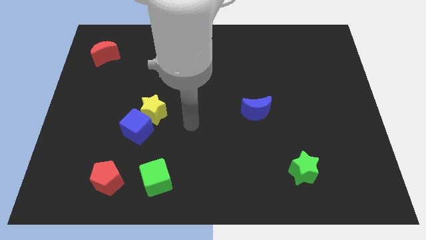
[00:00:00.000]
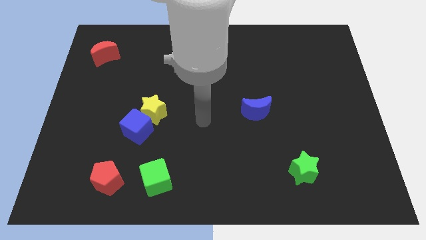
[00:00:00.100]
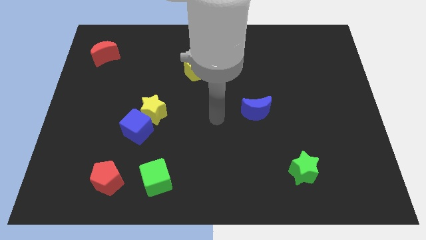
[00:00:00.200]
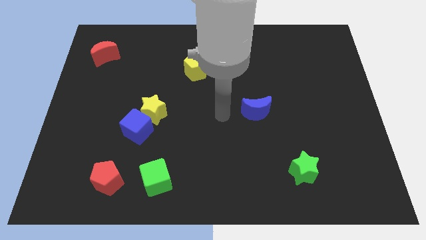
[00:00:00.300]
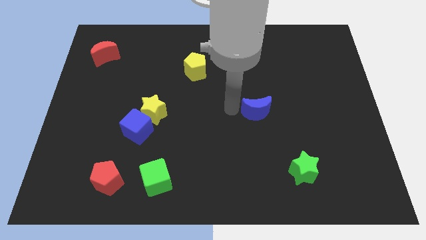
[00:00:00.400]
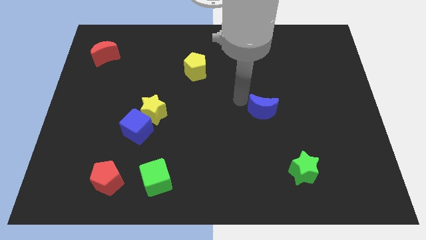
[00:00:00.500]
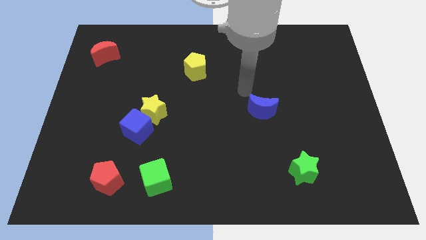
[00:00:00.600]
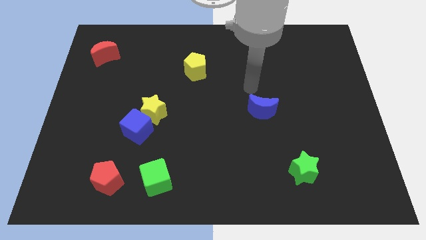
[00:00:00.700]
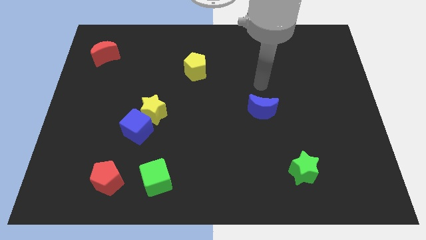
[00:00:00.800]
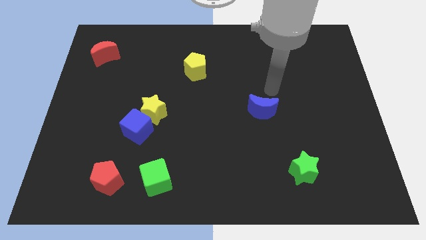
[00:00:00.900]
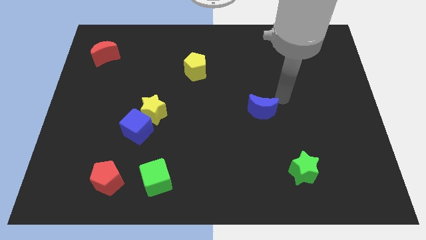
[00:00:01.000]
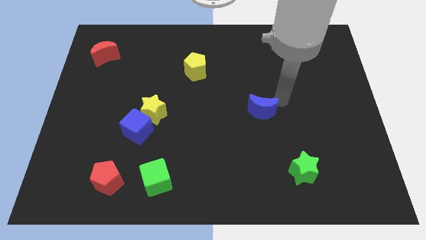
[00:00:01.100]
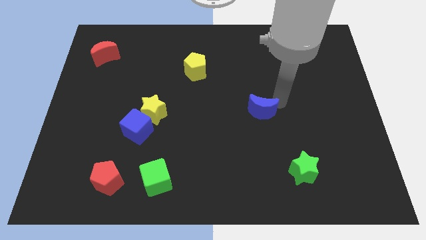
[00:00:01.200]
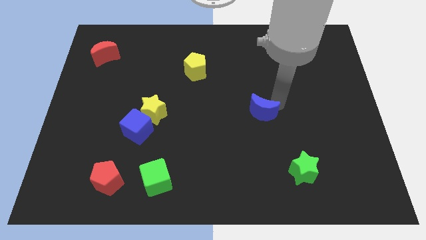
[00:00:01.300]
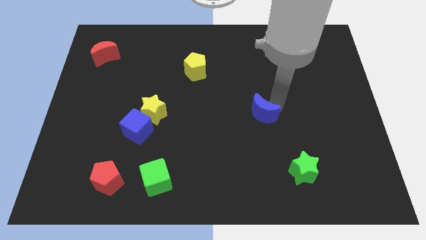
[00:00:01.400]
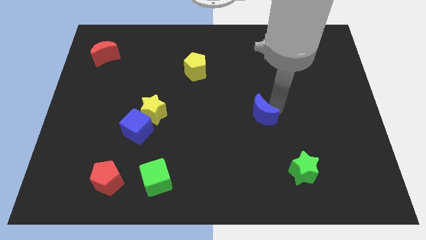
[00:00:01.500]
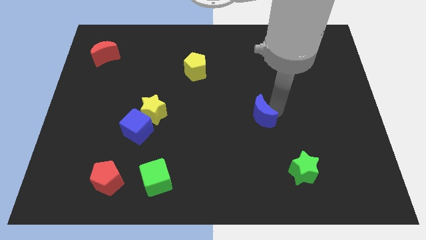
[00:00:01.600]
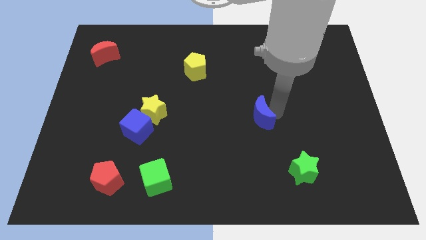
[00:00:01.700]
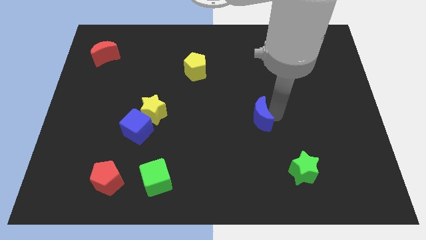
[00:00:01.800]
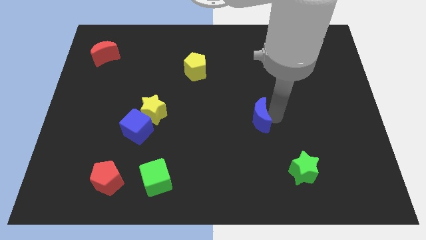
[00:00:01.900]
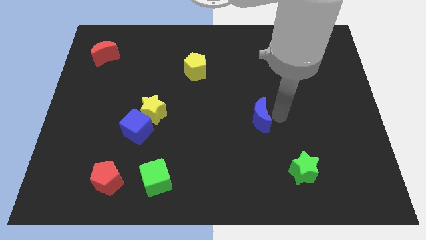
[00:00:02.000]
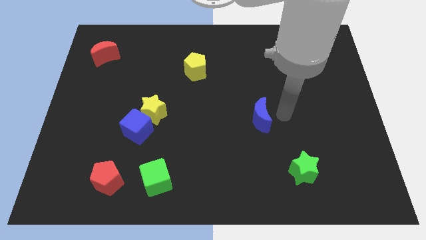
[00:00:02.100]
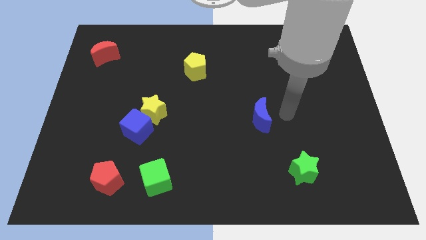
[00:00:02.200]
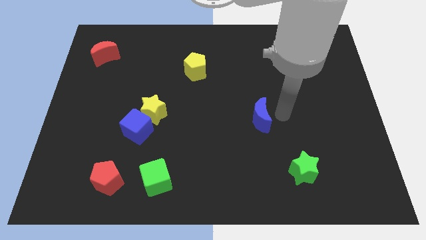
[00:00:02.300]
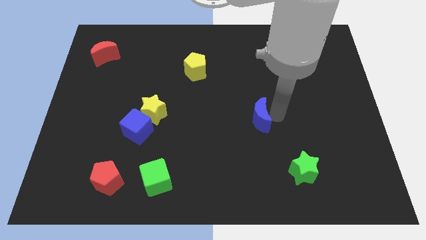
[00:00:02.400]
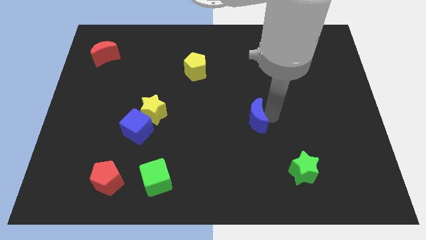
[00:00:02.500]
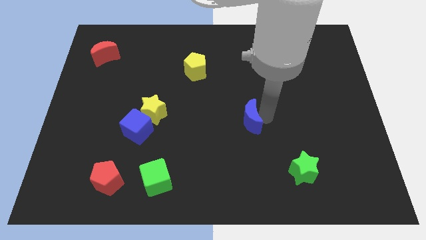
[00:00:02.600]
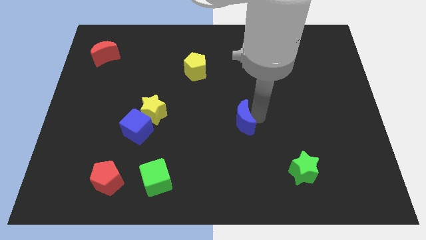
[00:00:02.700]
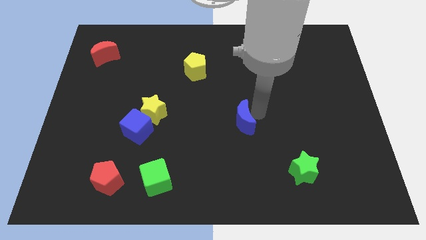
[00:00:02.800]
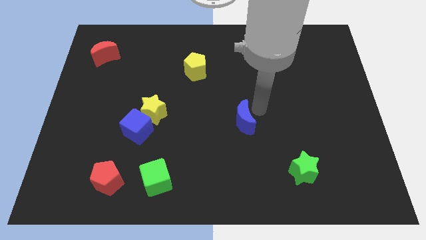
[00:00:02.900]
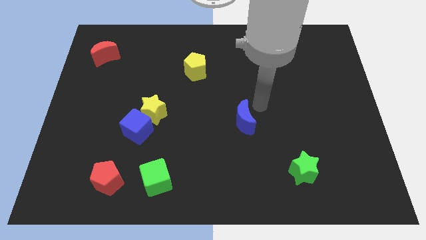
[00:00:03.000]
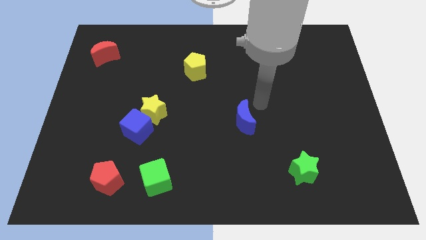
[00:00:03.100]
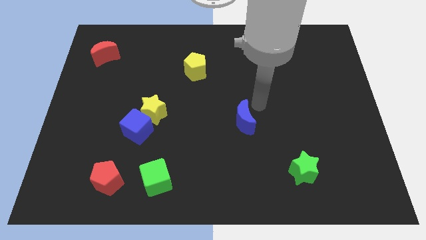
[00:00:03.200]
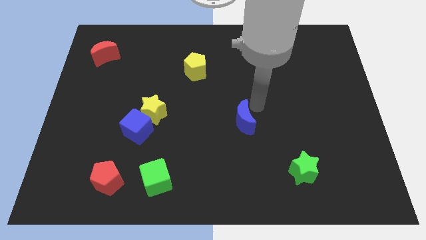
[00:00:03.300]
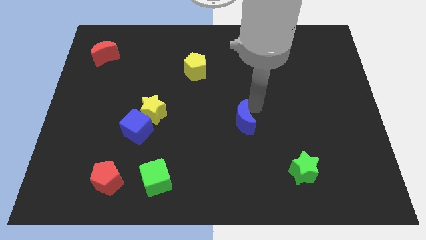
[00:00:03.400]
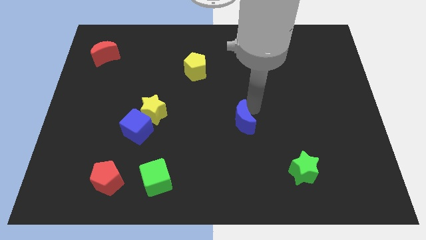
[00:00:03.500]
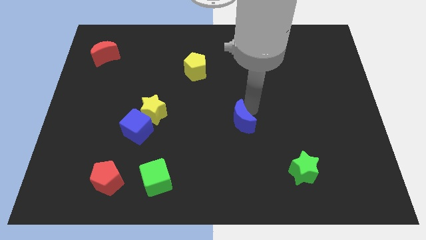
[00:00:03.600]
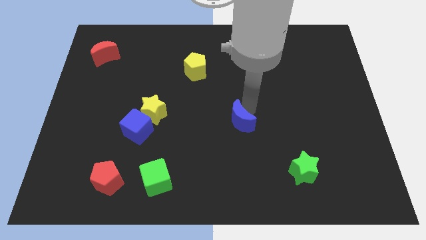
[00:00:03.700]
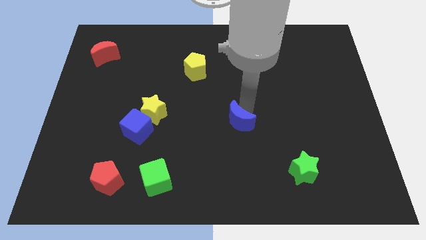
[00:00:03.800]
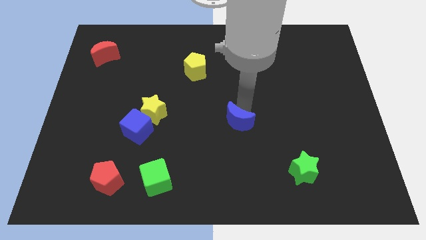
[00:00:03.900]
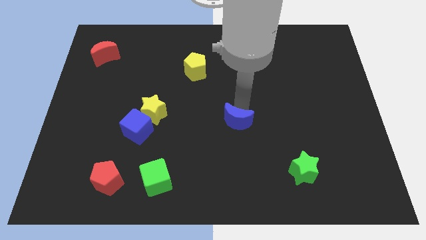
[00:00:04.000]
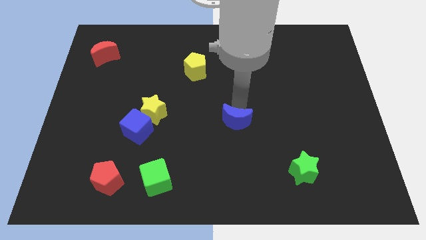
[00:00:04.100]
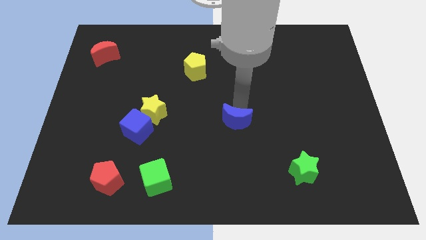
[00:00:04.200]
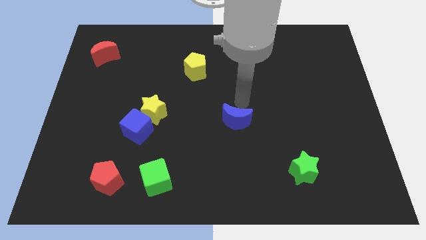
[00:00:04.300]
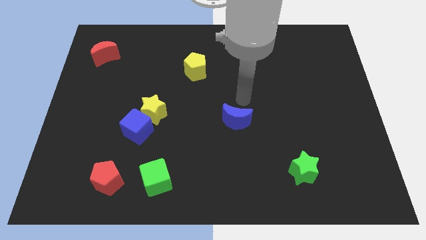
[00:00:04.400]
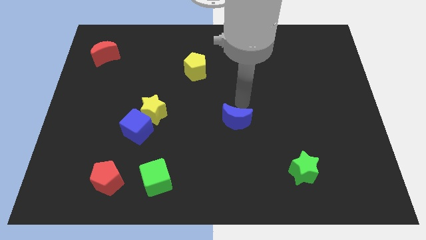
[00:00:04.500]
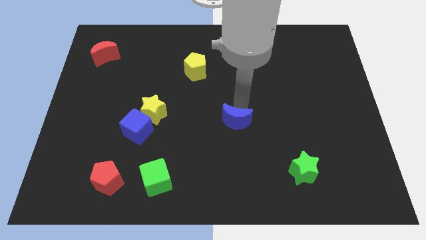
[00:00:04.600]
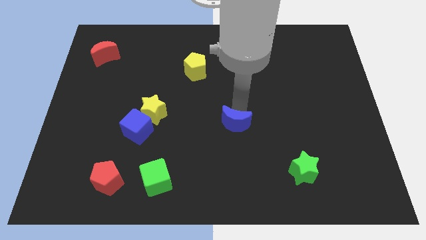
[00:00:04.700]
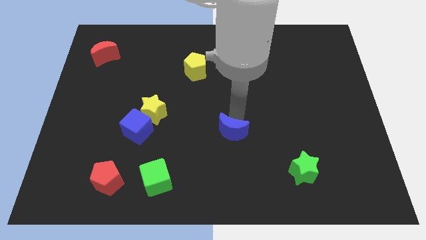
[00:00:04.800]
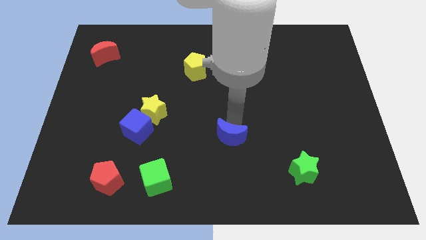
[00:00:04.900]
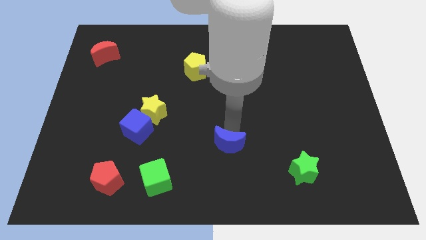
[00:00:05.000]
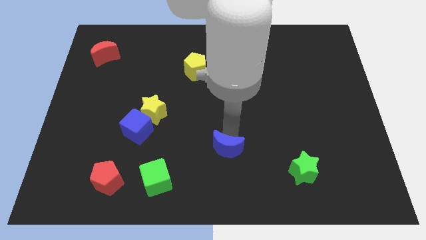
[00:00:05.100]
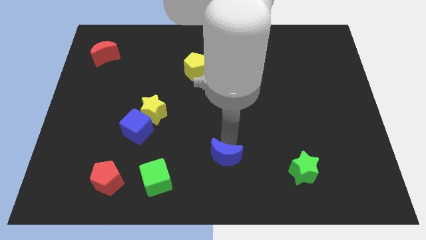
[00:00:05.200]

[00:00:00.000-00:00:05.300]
slide the blue moon to the bottom
